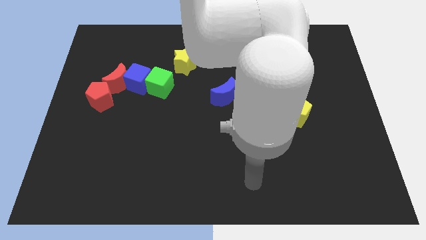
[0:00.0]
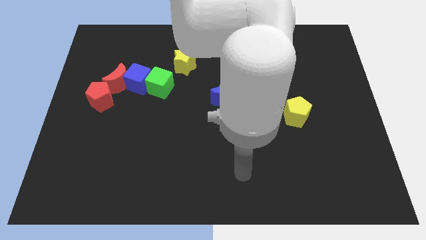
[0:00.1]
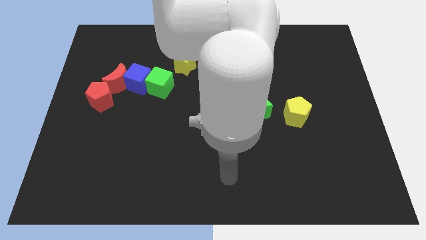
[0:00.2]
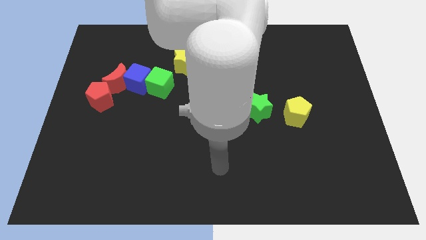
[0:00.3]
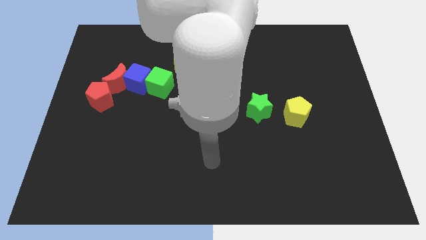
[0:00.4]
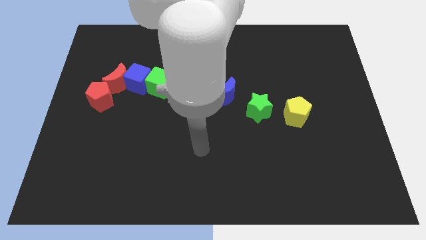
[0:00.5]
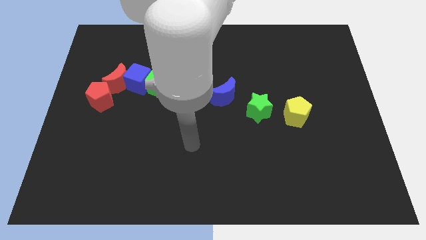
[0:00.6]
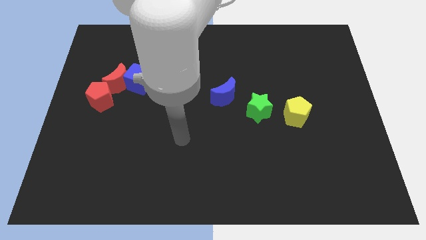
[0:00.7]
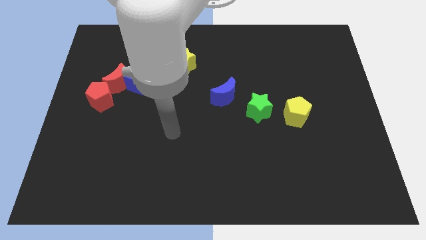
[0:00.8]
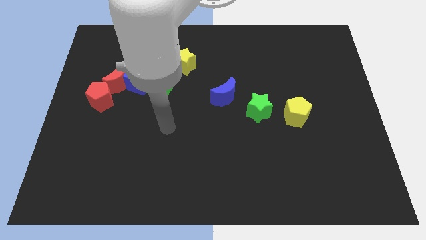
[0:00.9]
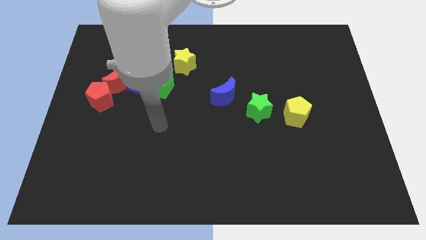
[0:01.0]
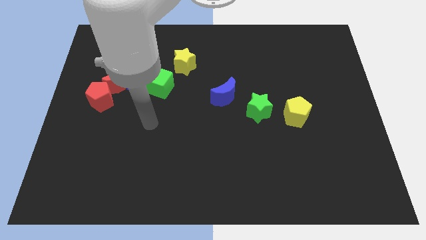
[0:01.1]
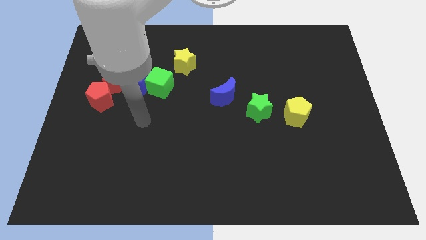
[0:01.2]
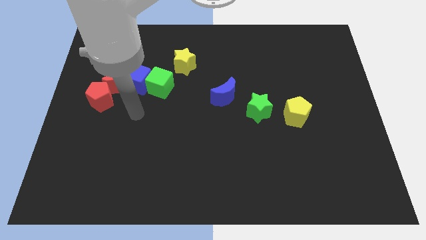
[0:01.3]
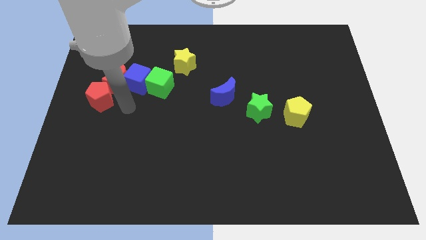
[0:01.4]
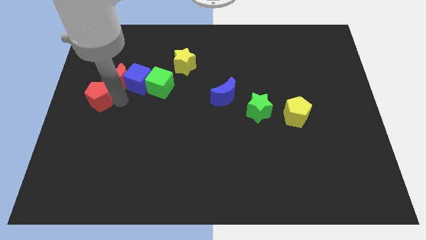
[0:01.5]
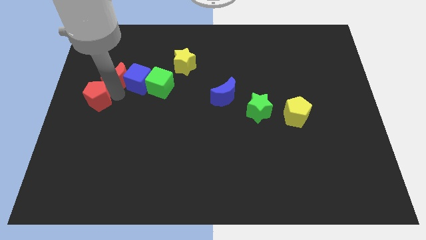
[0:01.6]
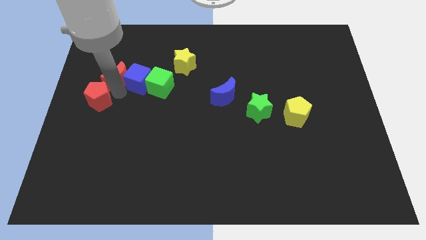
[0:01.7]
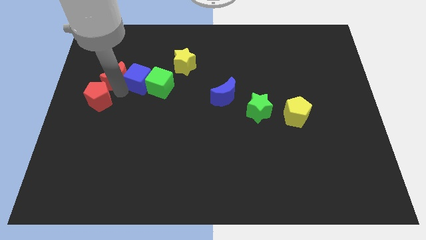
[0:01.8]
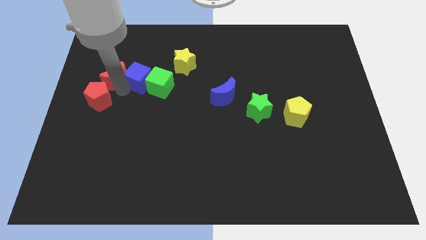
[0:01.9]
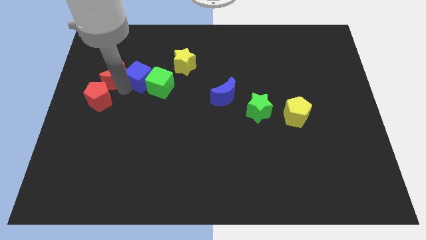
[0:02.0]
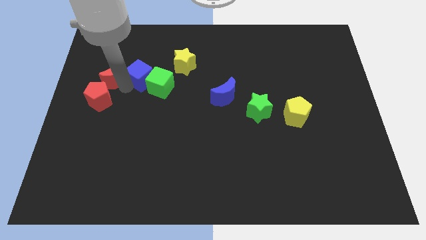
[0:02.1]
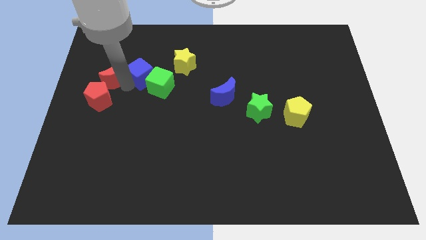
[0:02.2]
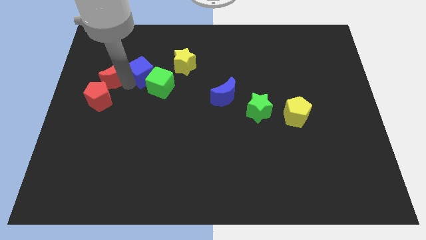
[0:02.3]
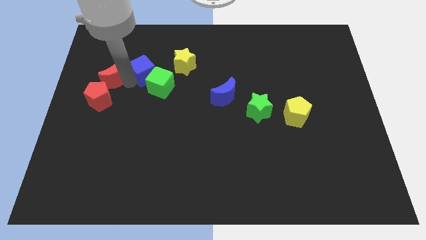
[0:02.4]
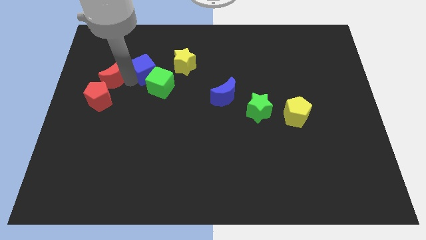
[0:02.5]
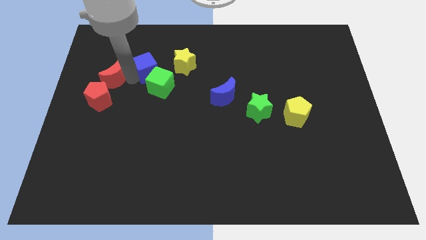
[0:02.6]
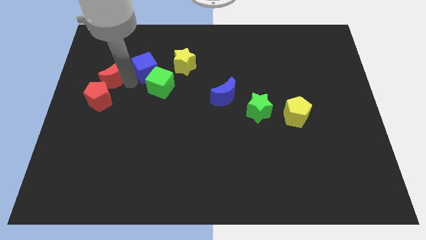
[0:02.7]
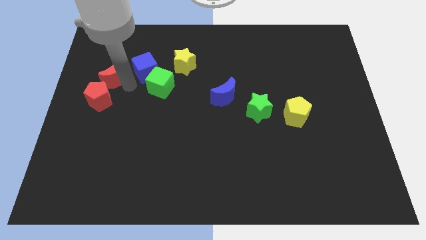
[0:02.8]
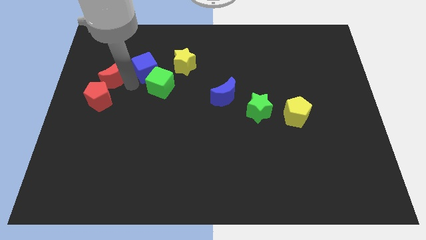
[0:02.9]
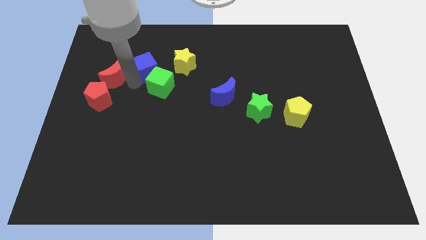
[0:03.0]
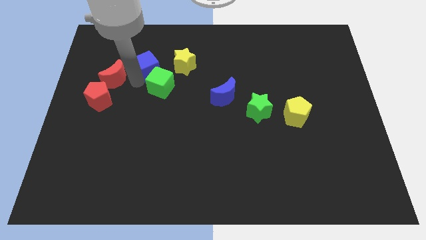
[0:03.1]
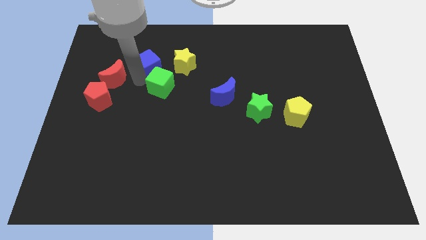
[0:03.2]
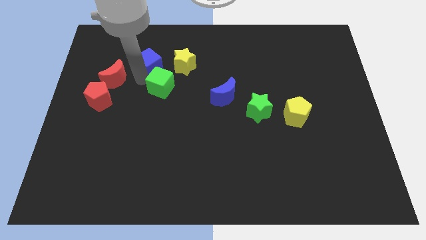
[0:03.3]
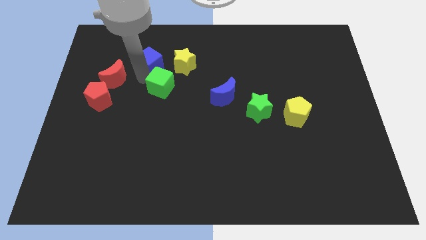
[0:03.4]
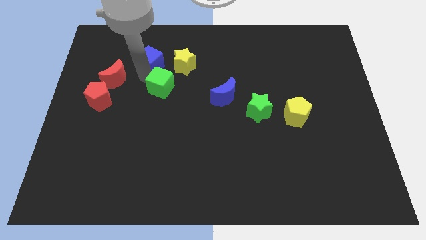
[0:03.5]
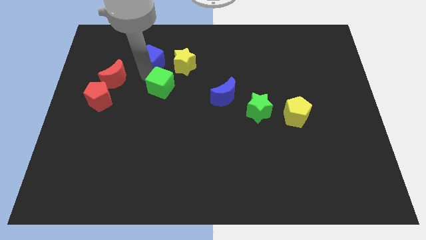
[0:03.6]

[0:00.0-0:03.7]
separate the blue cube from the group of blocks

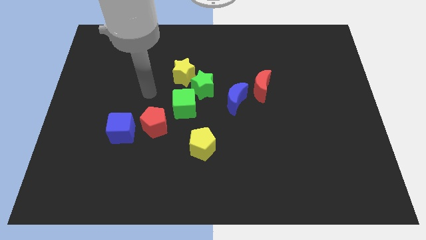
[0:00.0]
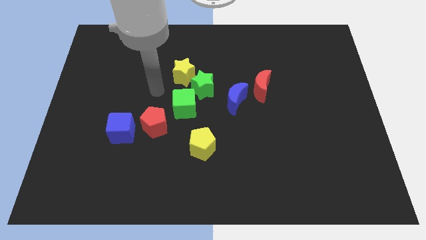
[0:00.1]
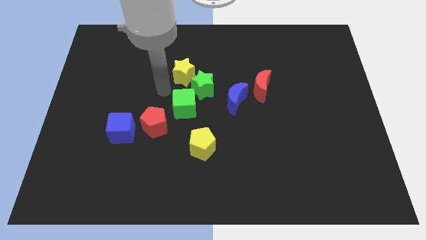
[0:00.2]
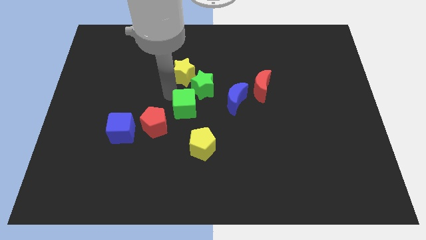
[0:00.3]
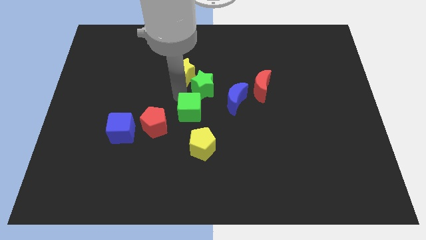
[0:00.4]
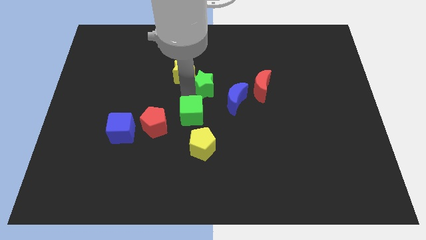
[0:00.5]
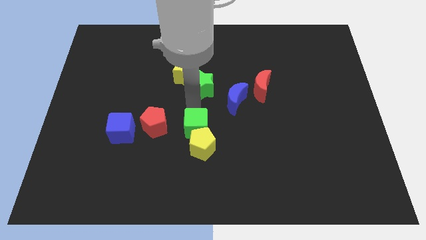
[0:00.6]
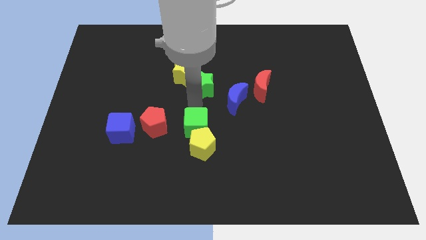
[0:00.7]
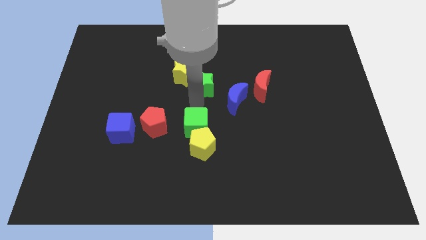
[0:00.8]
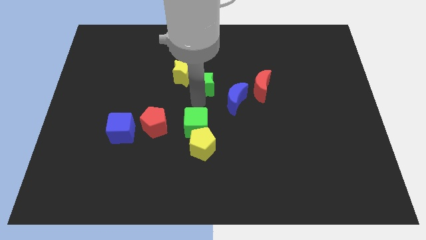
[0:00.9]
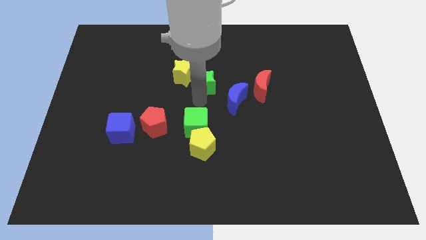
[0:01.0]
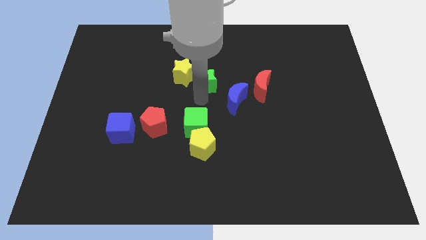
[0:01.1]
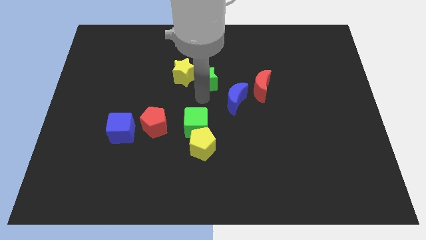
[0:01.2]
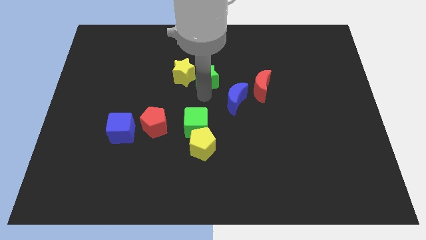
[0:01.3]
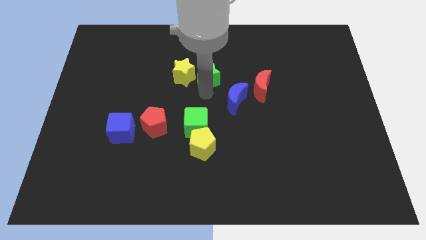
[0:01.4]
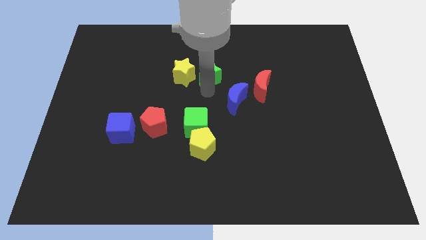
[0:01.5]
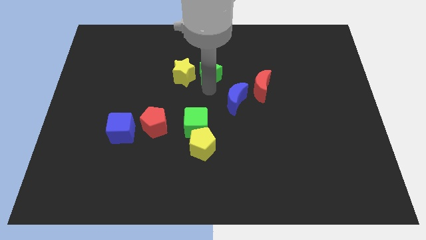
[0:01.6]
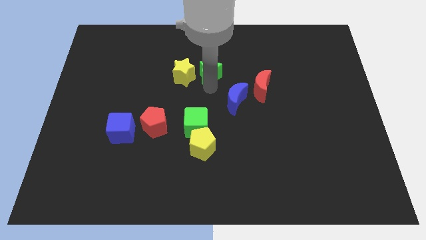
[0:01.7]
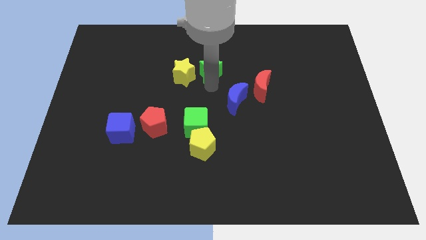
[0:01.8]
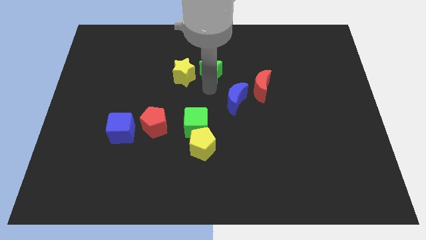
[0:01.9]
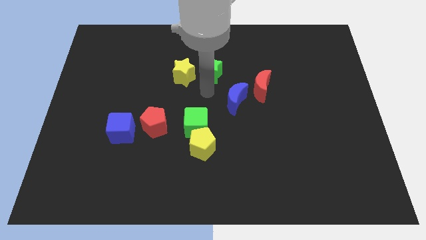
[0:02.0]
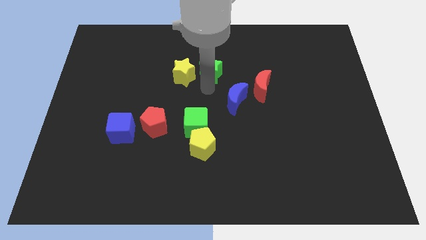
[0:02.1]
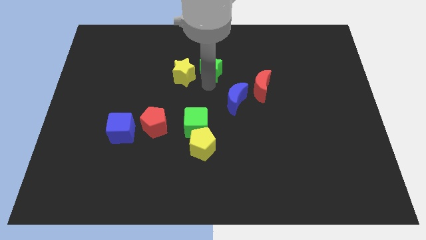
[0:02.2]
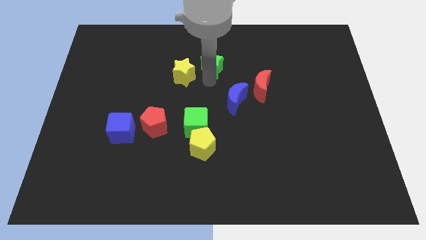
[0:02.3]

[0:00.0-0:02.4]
move the green star away from the yellow star, green cube, and blue moon

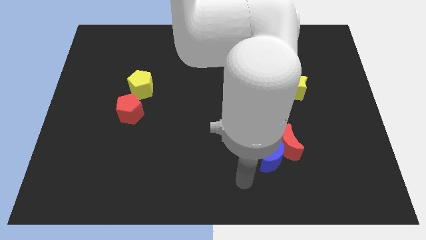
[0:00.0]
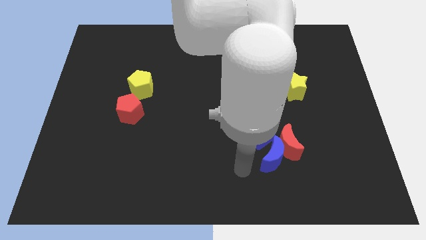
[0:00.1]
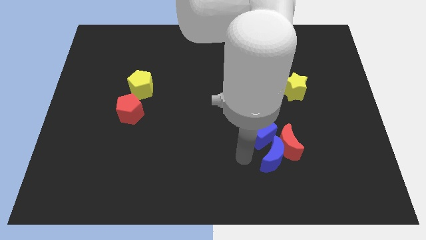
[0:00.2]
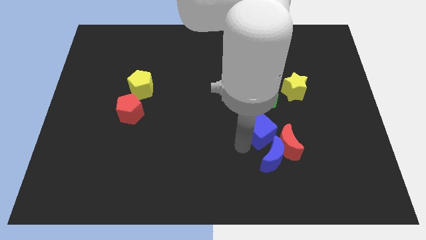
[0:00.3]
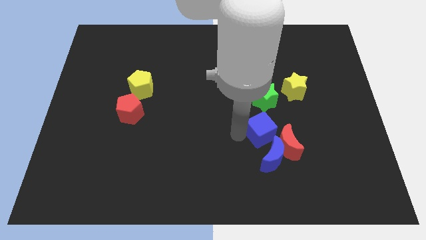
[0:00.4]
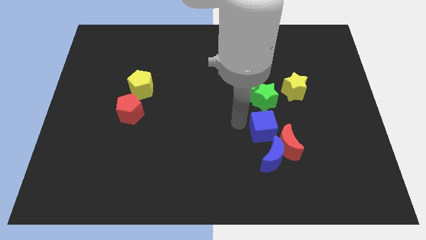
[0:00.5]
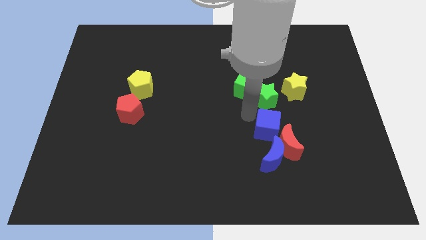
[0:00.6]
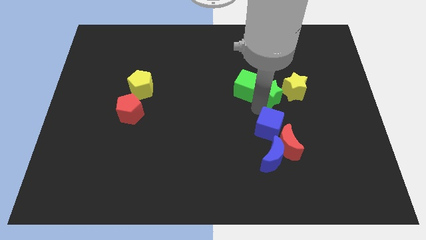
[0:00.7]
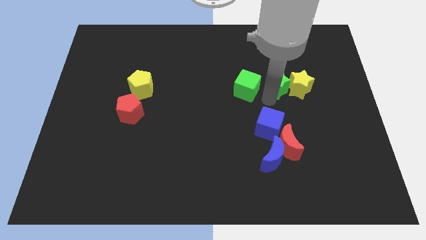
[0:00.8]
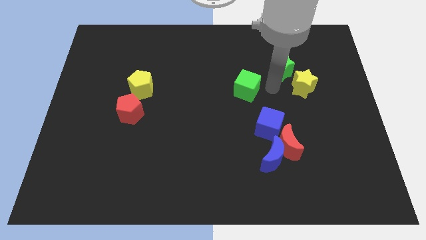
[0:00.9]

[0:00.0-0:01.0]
move the green cube away from the green star

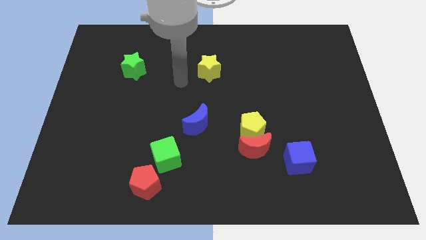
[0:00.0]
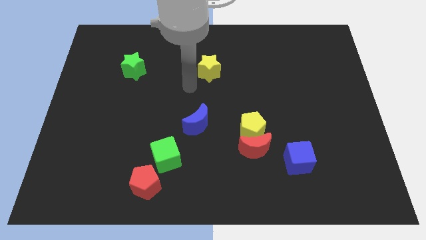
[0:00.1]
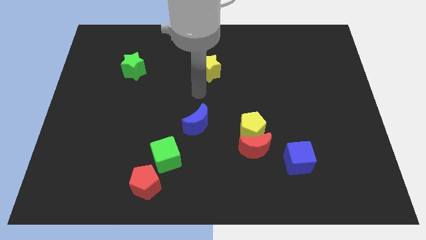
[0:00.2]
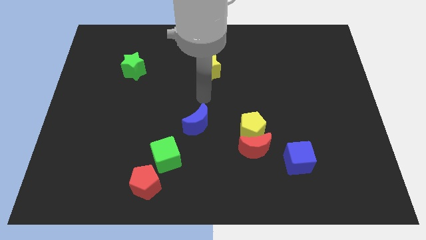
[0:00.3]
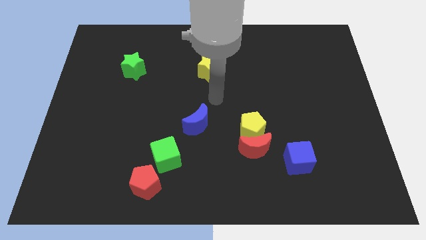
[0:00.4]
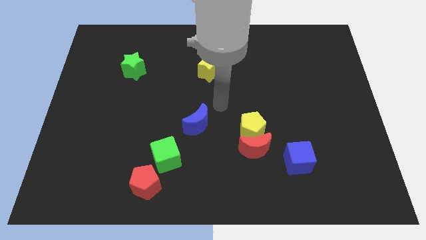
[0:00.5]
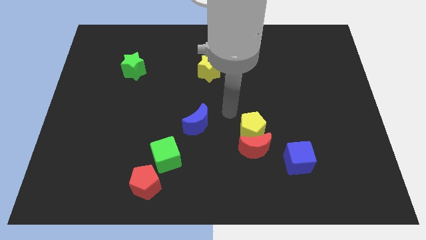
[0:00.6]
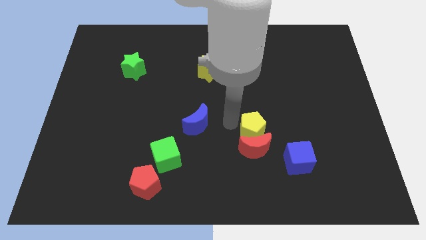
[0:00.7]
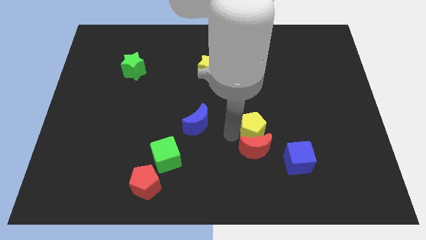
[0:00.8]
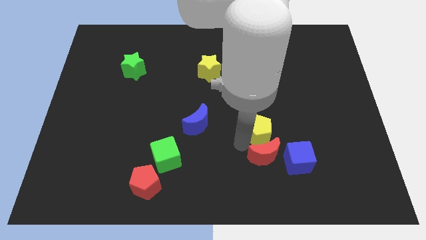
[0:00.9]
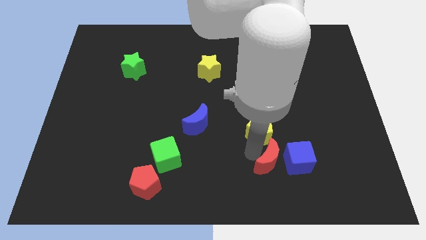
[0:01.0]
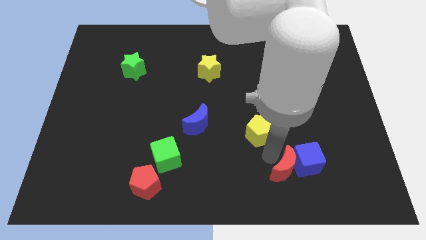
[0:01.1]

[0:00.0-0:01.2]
pull the yellow pentagon apart from the red moon

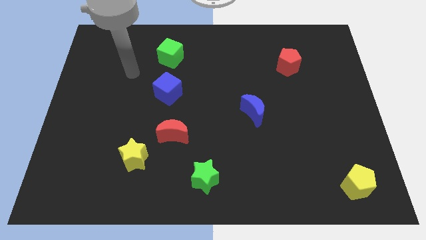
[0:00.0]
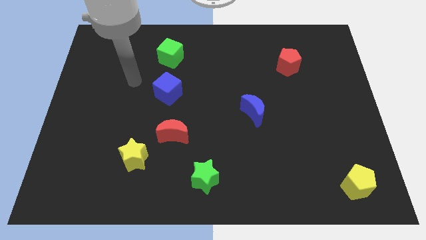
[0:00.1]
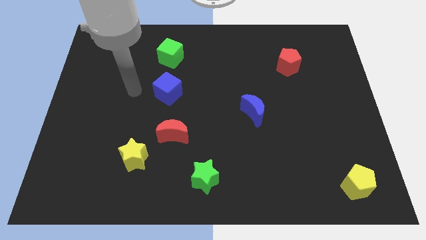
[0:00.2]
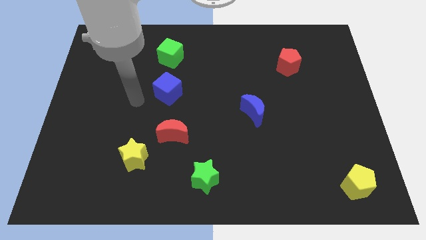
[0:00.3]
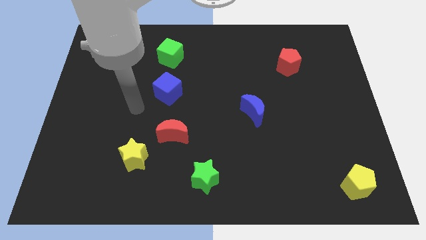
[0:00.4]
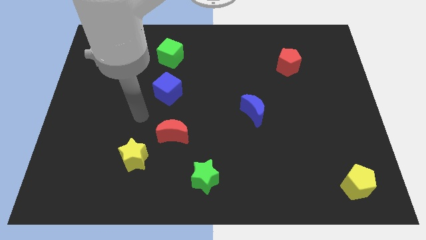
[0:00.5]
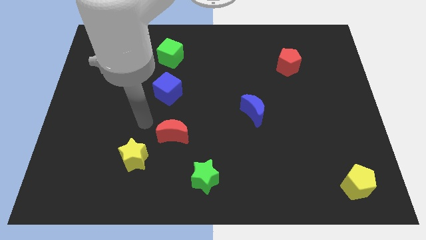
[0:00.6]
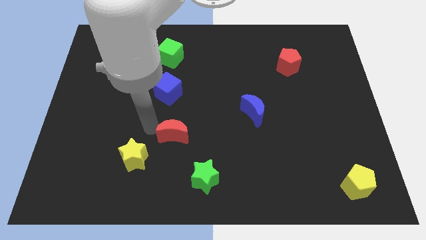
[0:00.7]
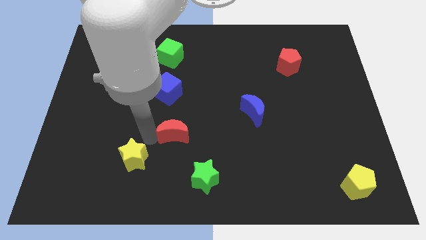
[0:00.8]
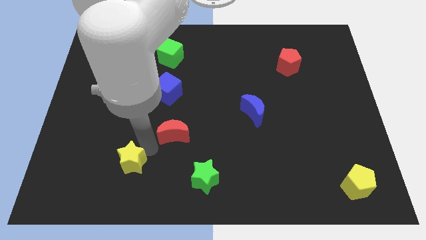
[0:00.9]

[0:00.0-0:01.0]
separate the red moon from the yellow star
